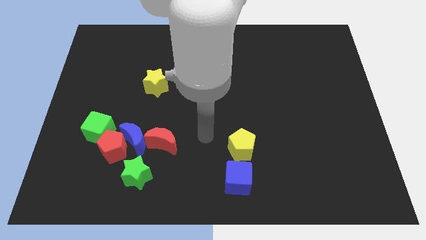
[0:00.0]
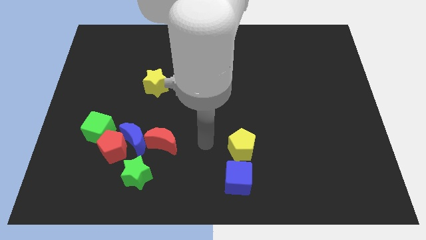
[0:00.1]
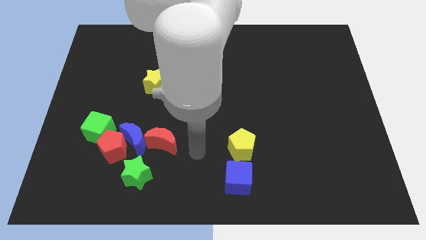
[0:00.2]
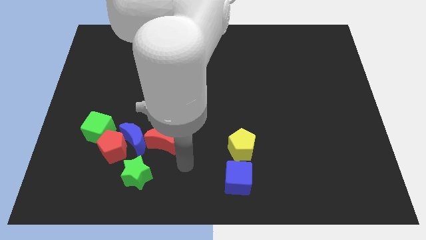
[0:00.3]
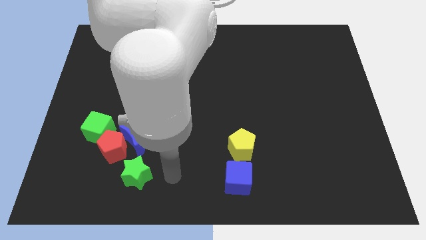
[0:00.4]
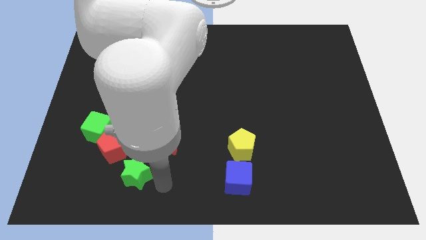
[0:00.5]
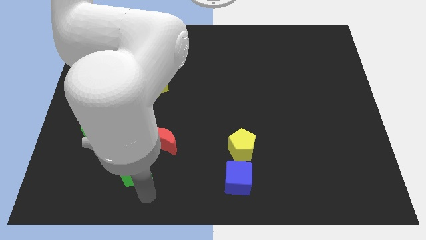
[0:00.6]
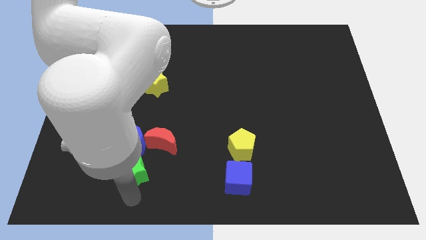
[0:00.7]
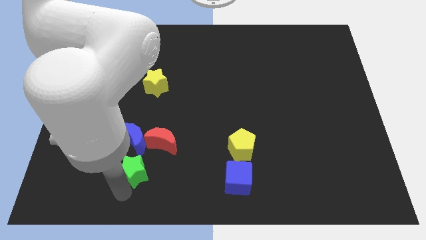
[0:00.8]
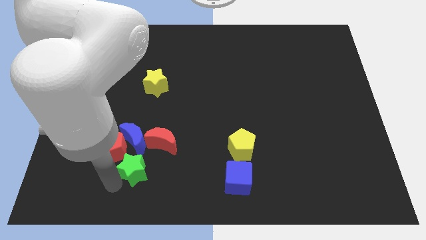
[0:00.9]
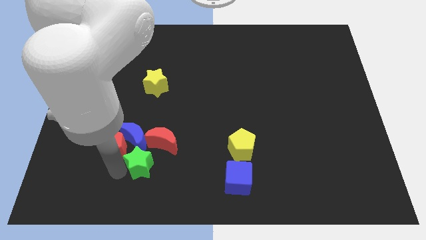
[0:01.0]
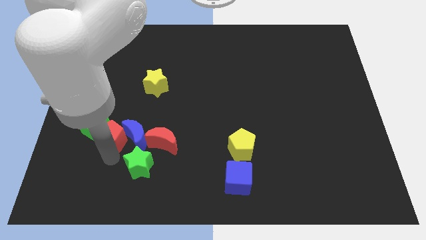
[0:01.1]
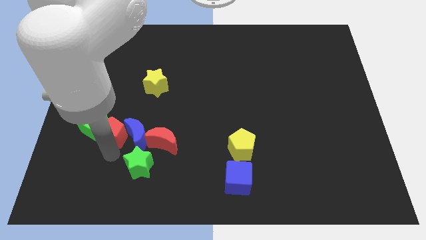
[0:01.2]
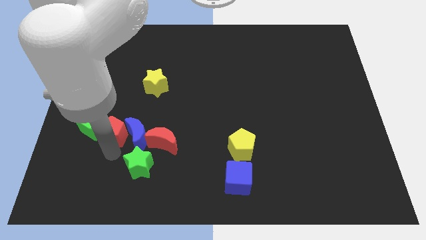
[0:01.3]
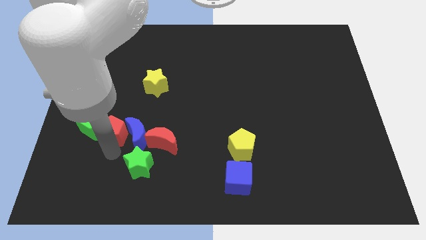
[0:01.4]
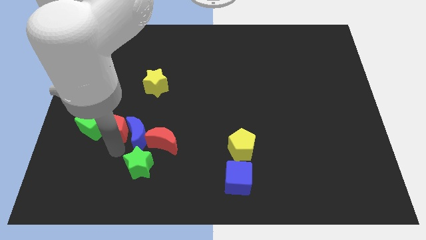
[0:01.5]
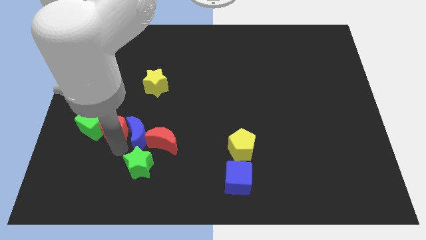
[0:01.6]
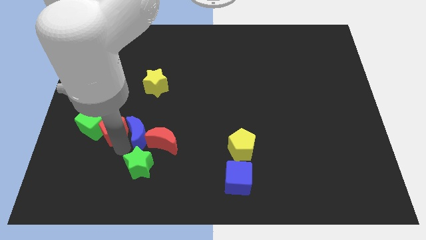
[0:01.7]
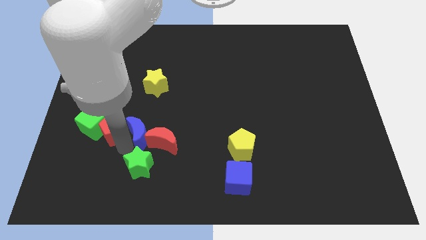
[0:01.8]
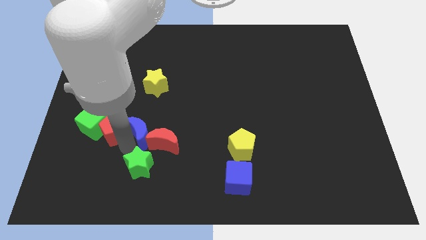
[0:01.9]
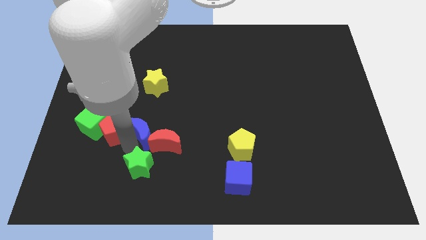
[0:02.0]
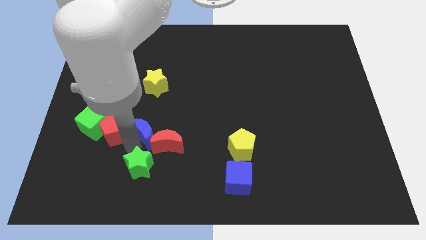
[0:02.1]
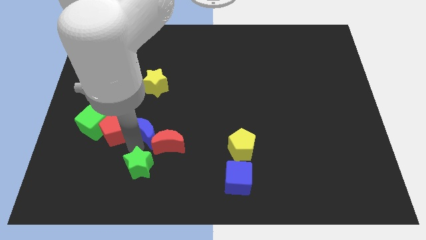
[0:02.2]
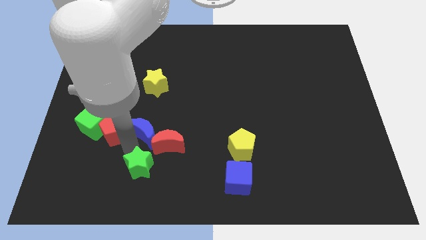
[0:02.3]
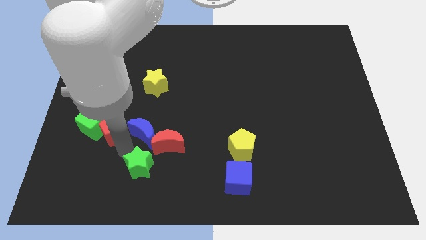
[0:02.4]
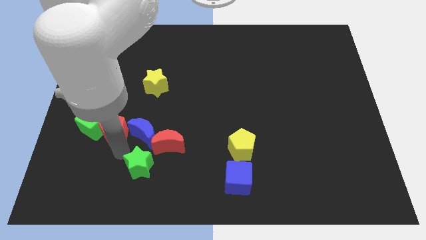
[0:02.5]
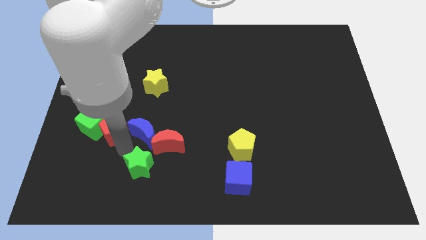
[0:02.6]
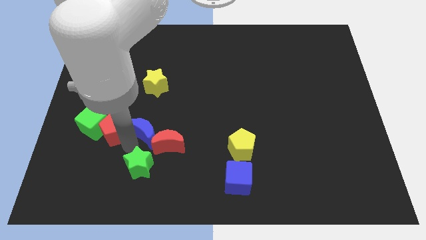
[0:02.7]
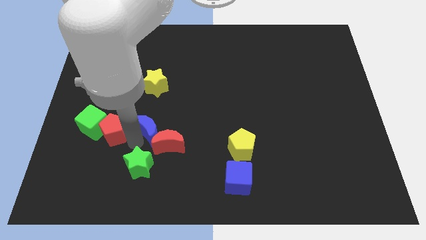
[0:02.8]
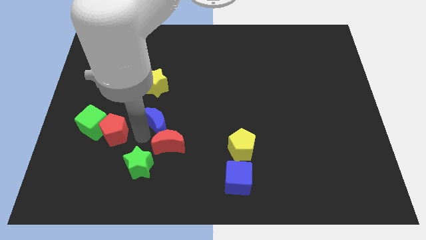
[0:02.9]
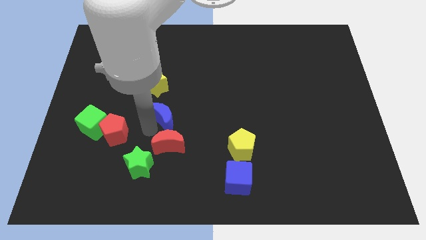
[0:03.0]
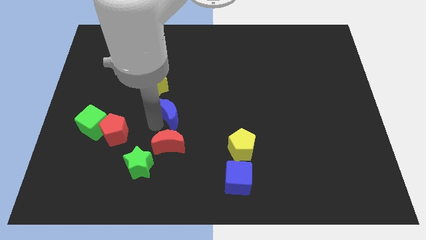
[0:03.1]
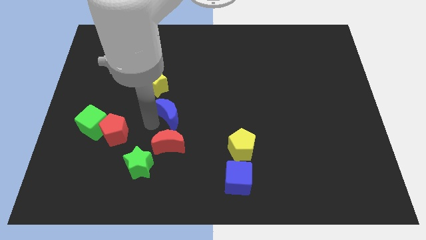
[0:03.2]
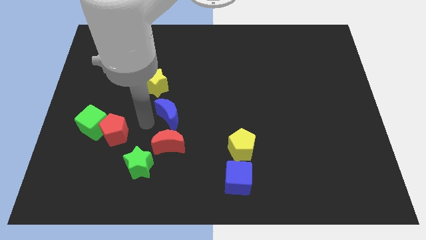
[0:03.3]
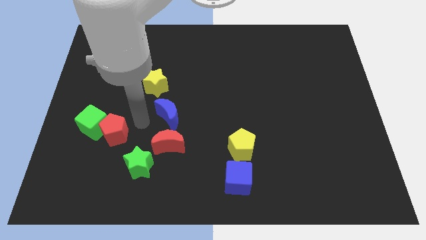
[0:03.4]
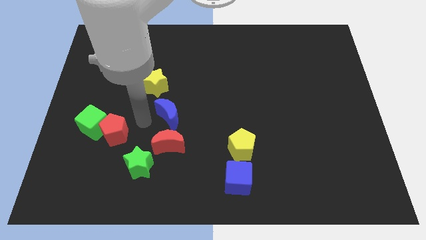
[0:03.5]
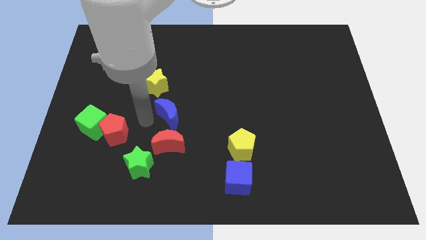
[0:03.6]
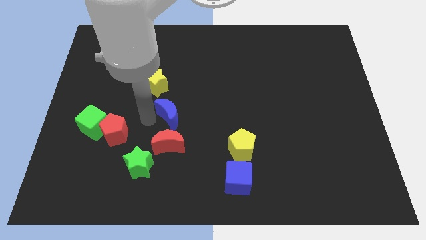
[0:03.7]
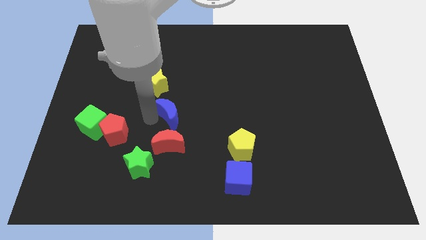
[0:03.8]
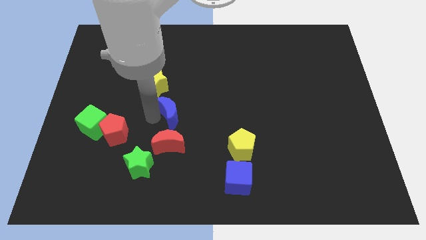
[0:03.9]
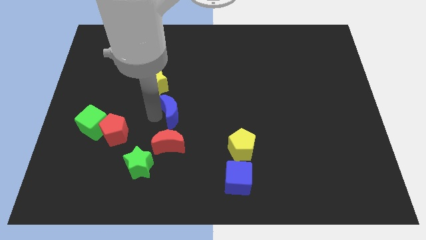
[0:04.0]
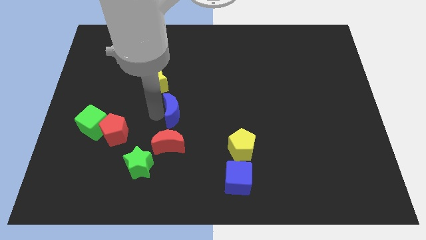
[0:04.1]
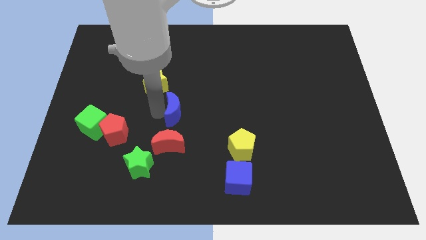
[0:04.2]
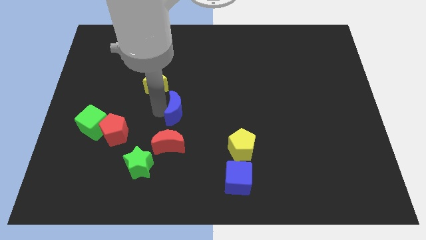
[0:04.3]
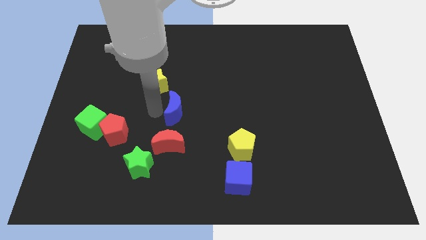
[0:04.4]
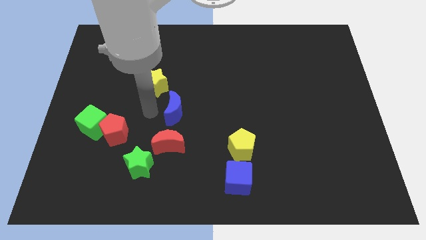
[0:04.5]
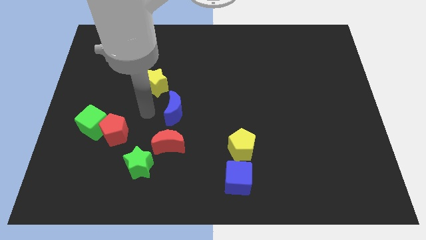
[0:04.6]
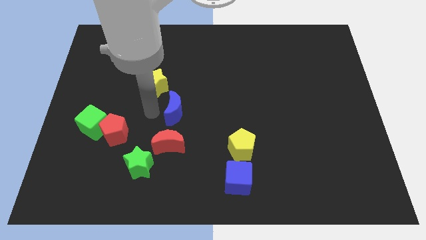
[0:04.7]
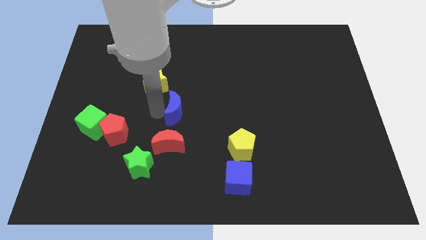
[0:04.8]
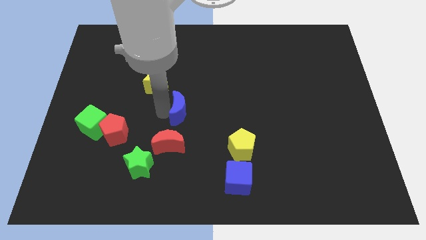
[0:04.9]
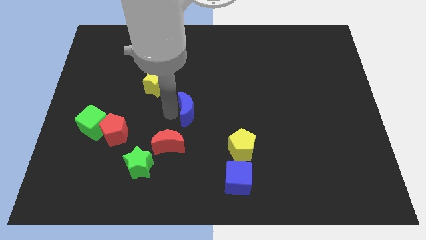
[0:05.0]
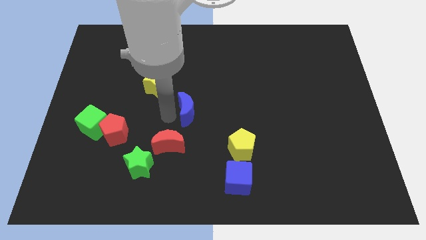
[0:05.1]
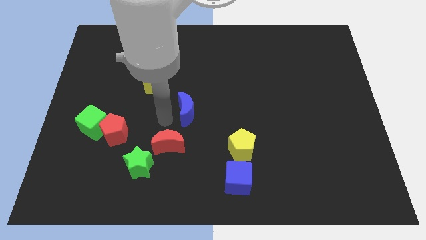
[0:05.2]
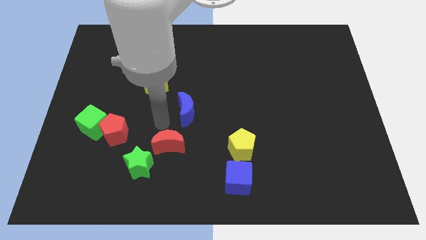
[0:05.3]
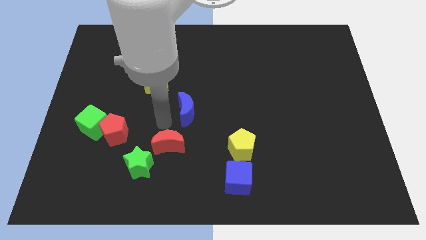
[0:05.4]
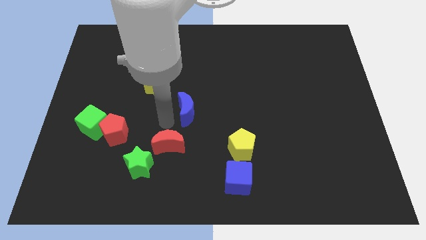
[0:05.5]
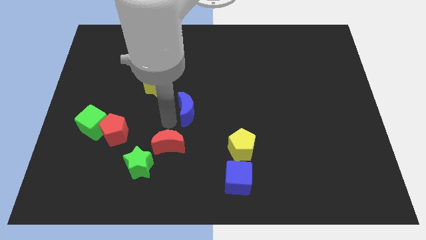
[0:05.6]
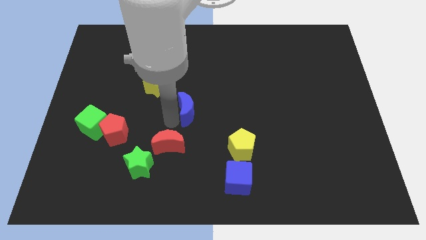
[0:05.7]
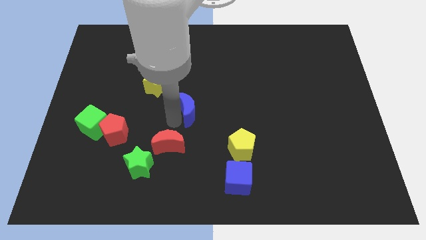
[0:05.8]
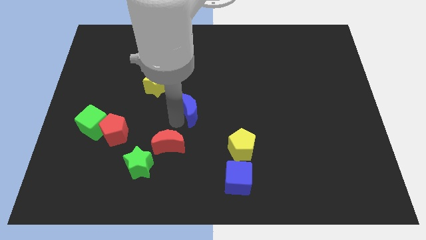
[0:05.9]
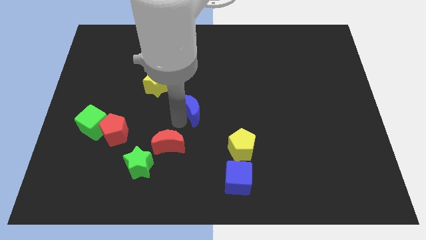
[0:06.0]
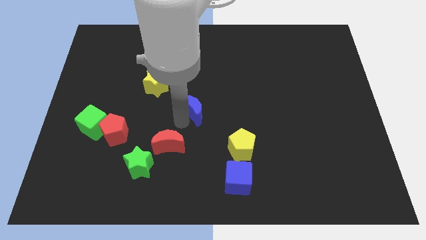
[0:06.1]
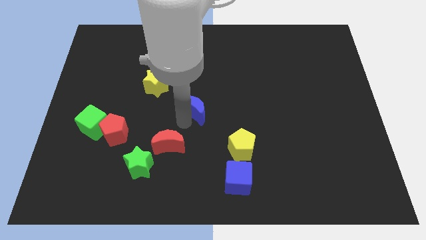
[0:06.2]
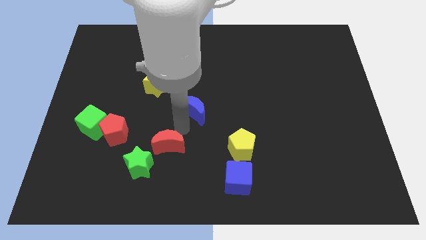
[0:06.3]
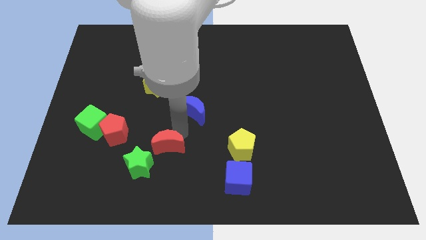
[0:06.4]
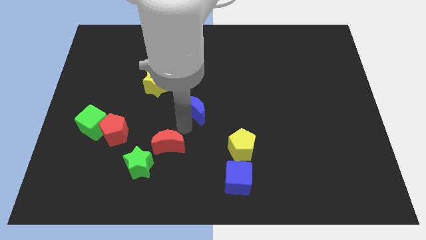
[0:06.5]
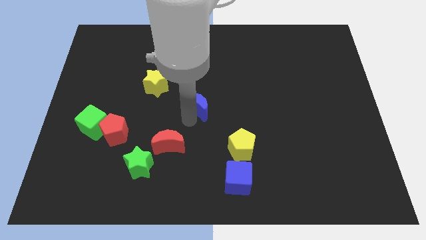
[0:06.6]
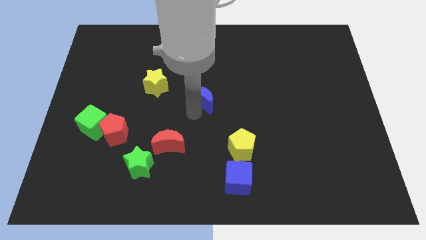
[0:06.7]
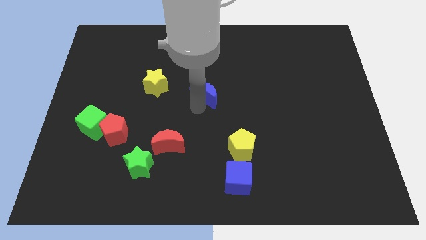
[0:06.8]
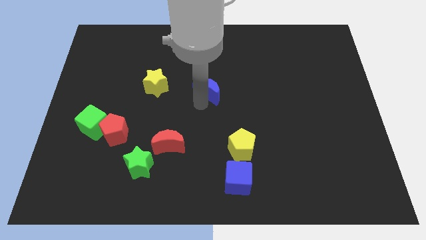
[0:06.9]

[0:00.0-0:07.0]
push the blue moon up and right diagonally

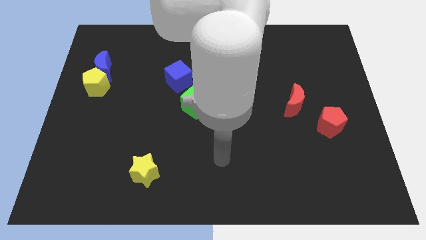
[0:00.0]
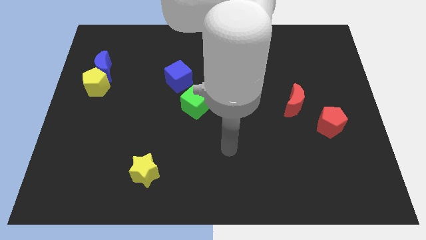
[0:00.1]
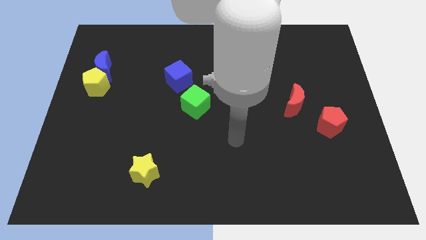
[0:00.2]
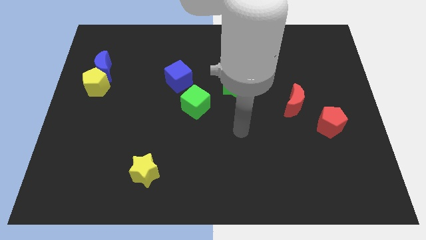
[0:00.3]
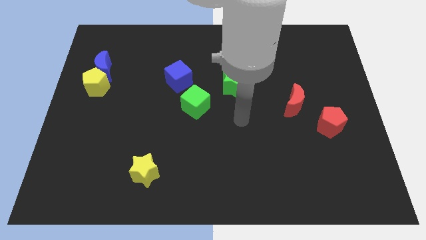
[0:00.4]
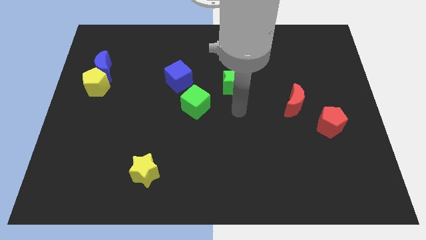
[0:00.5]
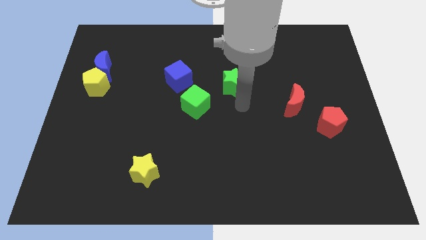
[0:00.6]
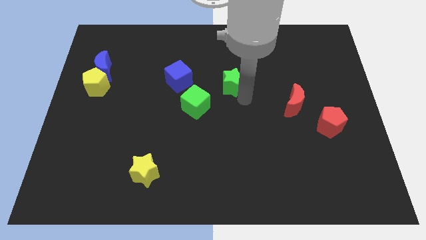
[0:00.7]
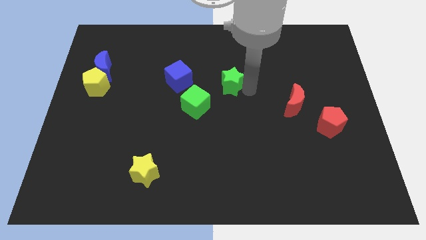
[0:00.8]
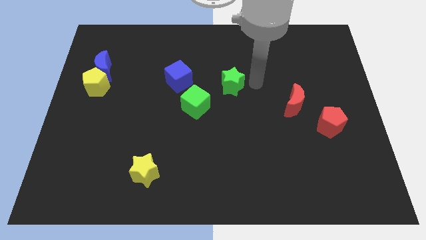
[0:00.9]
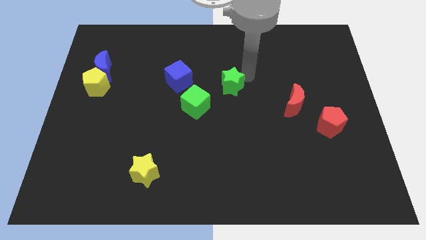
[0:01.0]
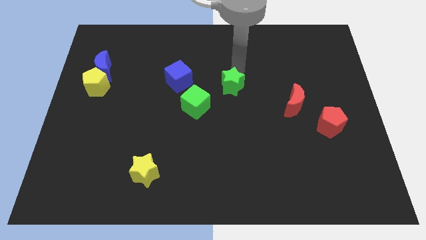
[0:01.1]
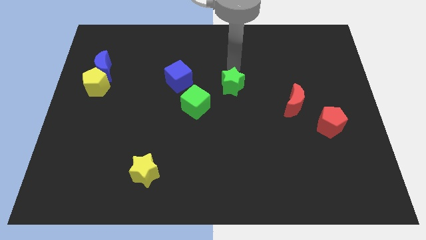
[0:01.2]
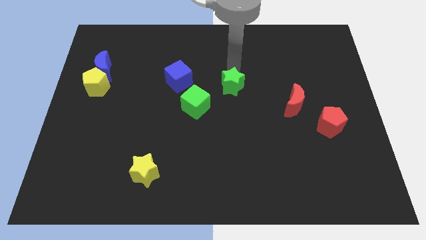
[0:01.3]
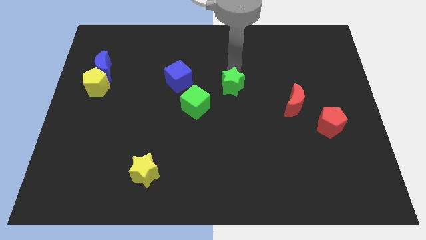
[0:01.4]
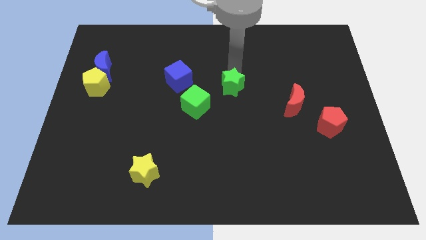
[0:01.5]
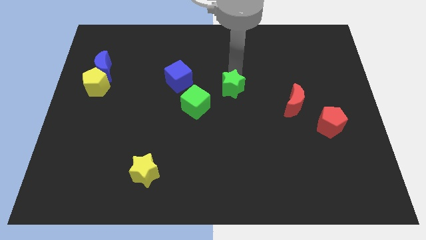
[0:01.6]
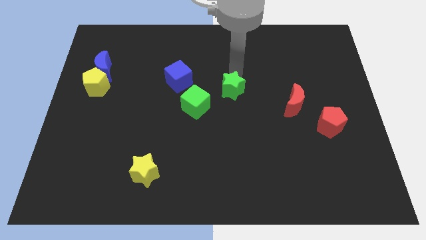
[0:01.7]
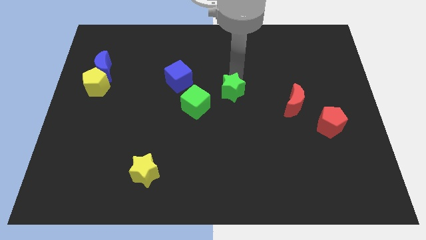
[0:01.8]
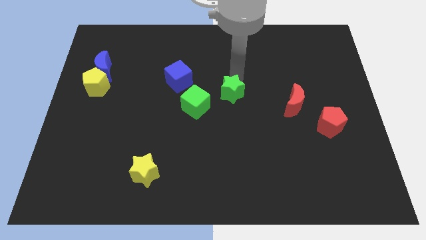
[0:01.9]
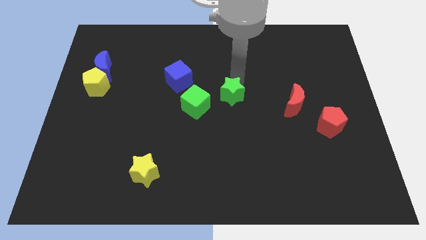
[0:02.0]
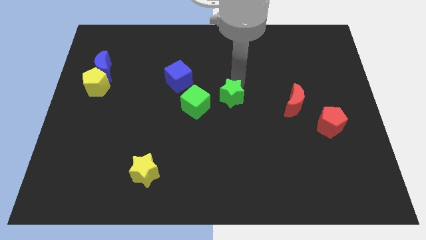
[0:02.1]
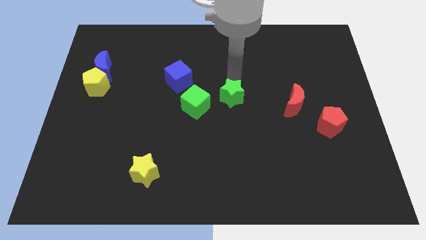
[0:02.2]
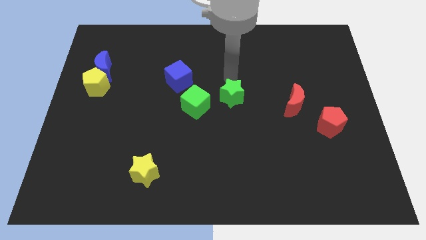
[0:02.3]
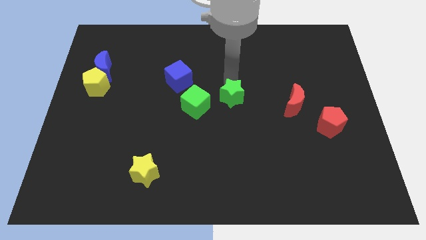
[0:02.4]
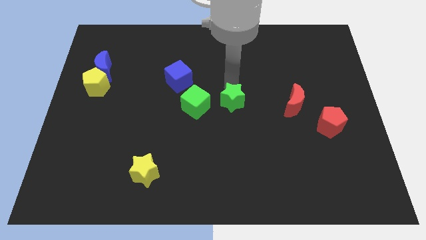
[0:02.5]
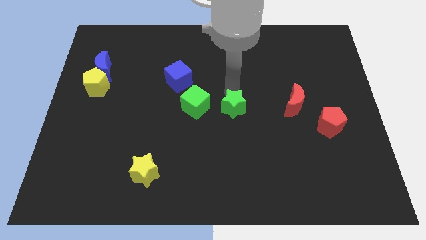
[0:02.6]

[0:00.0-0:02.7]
move the green star slightly downwards
